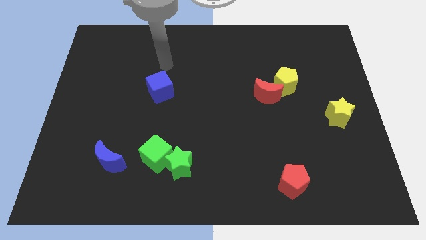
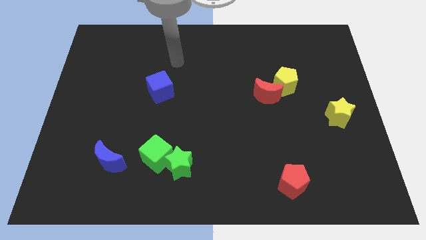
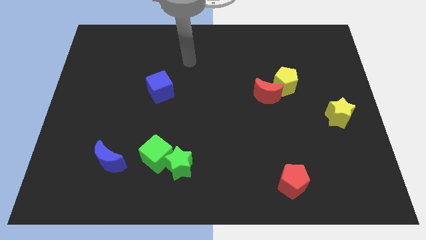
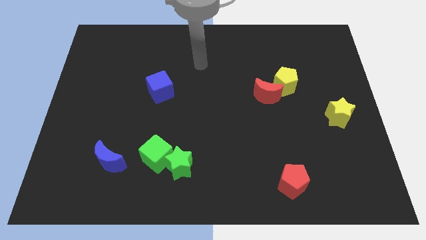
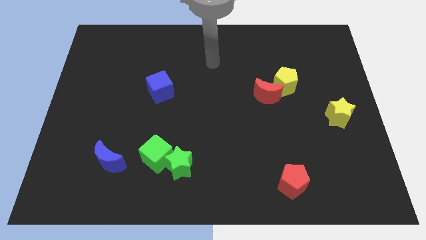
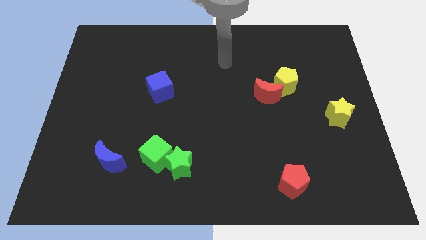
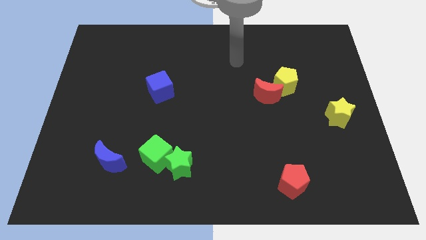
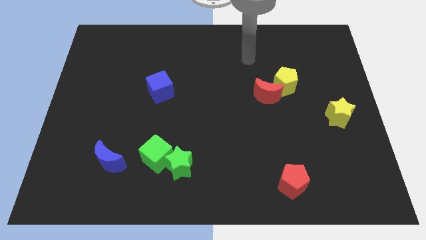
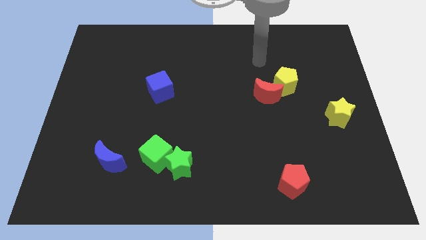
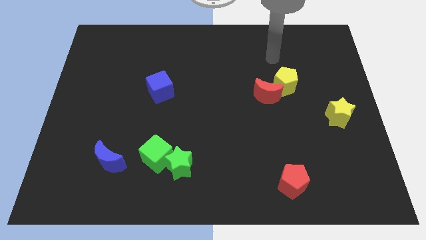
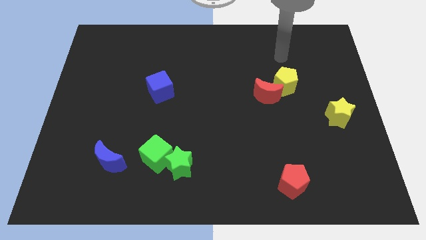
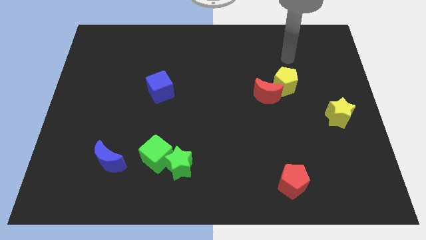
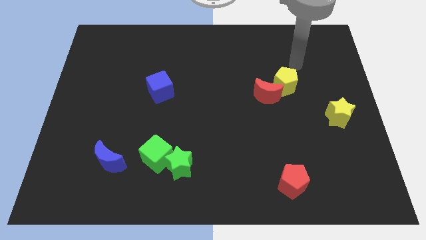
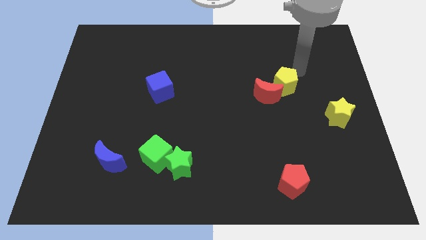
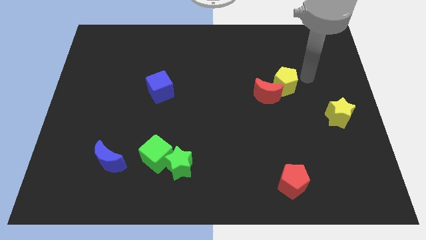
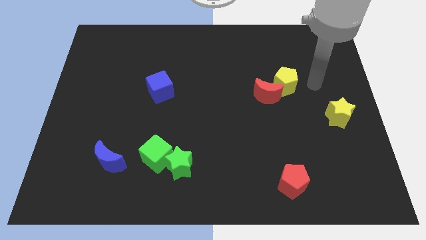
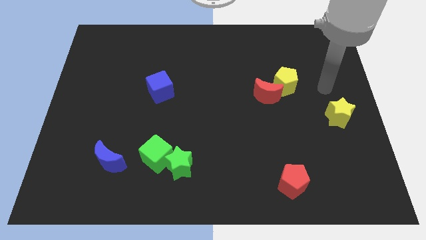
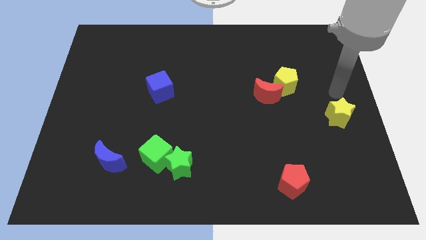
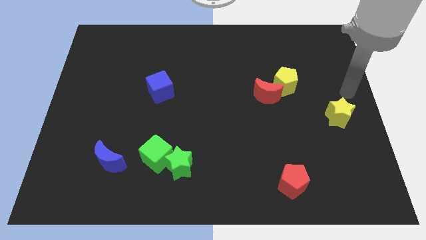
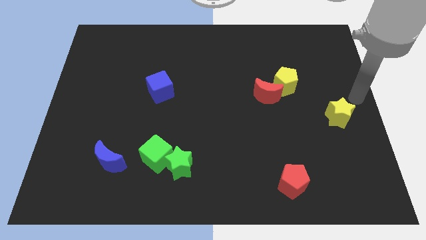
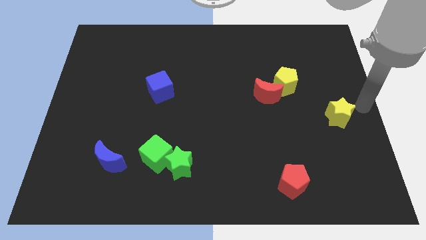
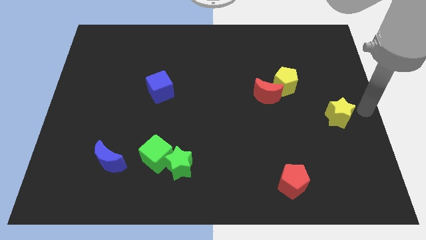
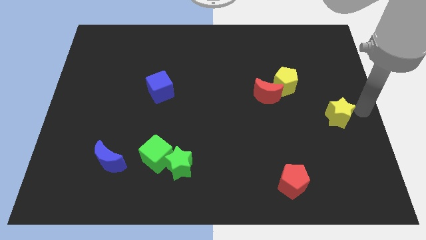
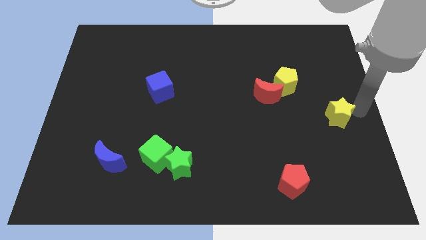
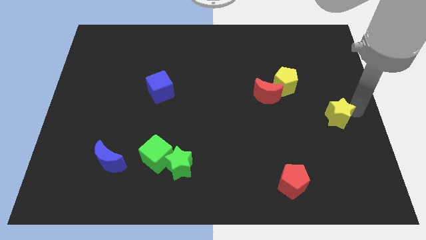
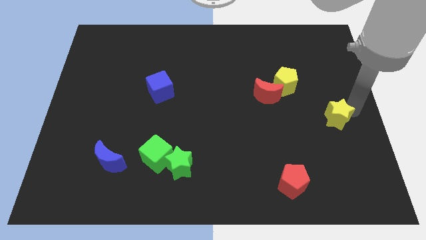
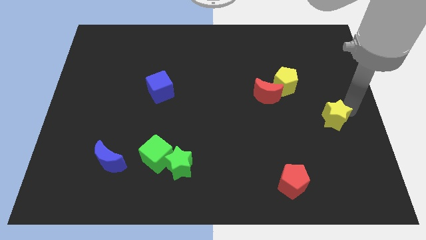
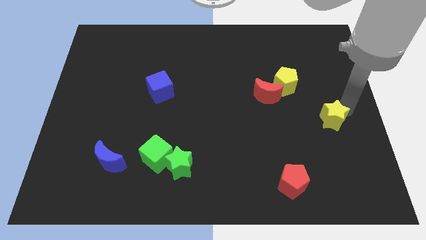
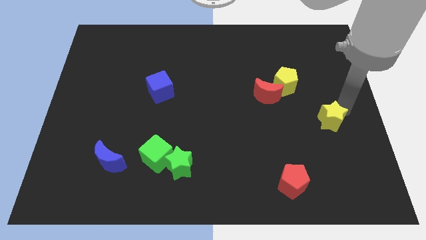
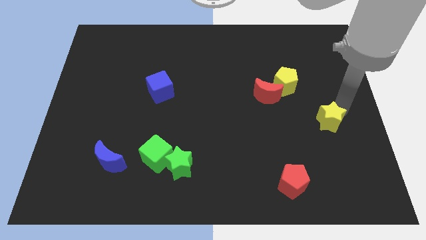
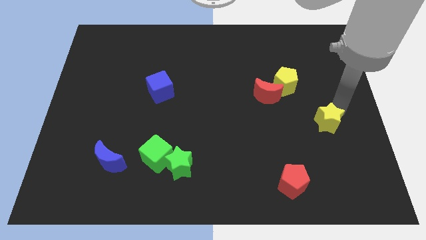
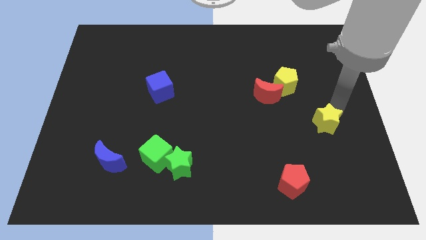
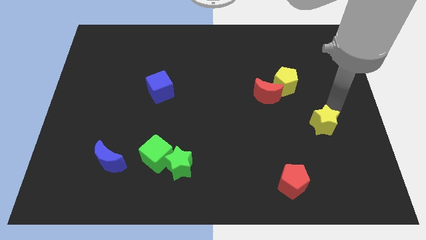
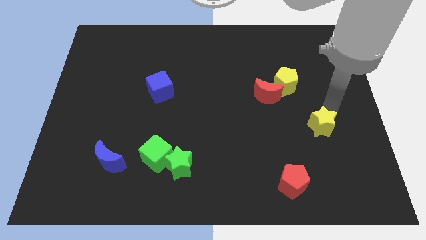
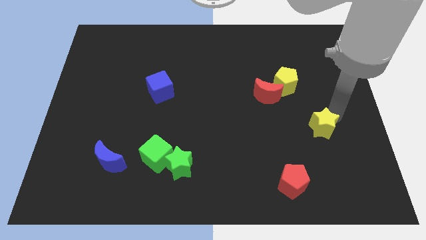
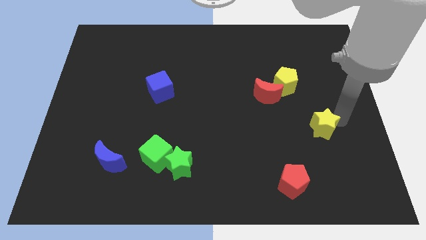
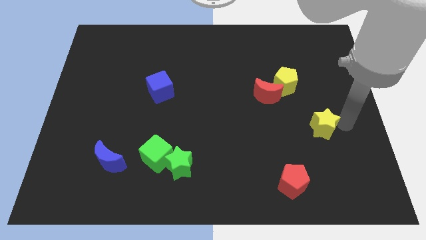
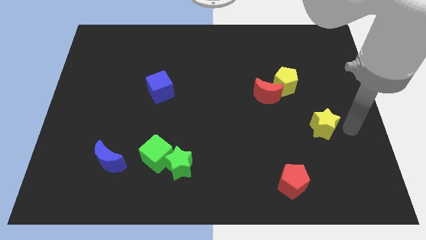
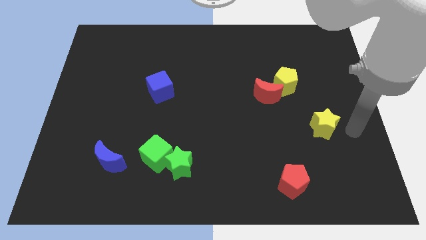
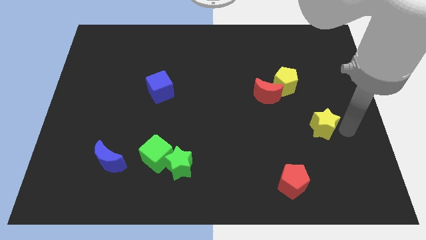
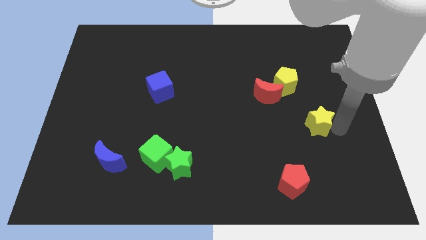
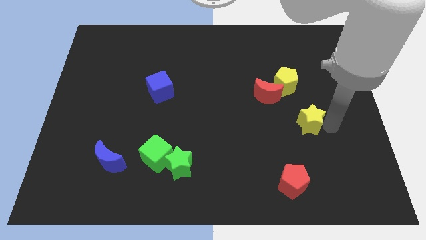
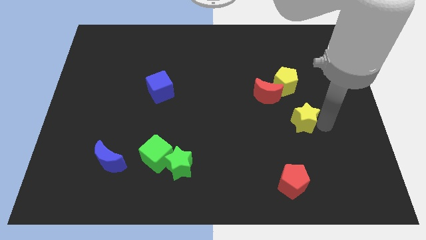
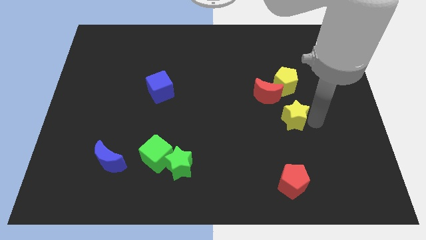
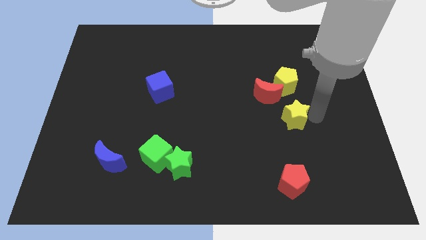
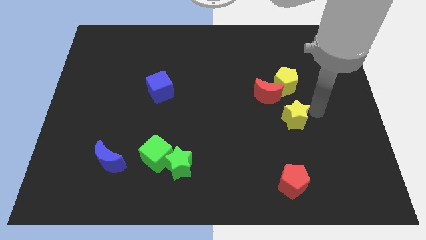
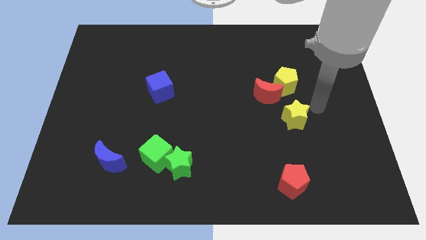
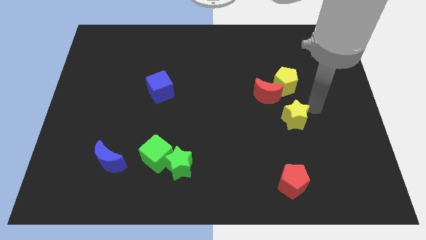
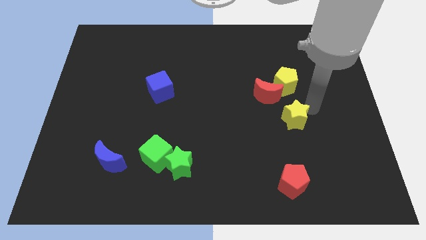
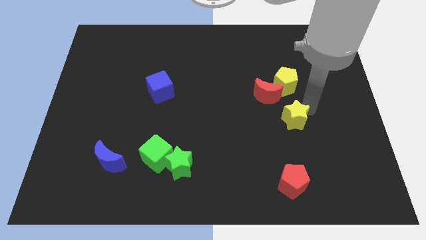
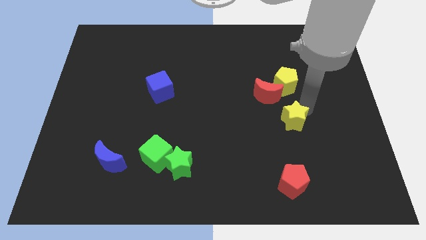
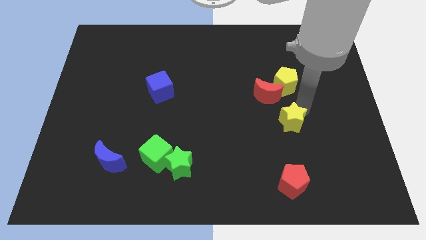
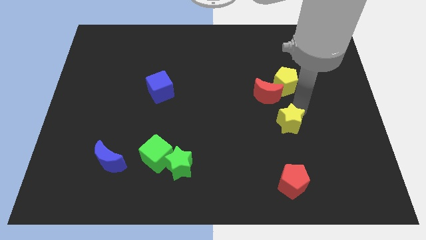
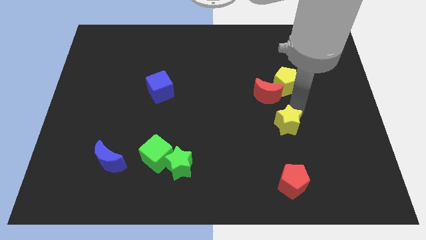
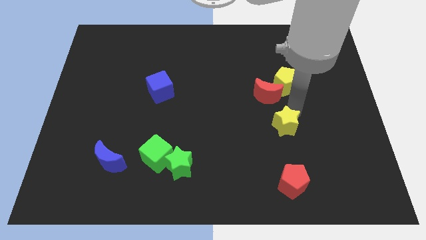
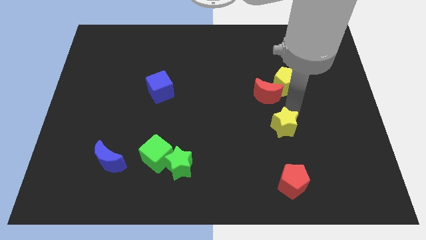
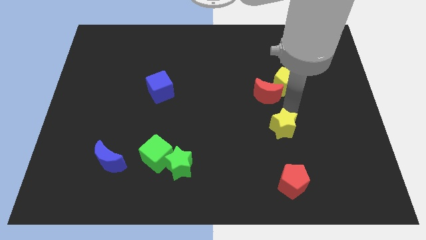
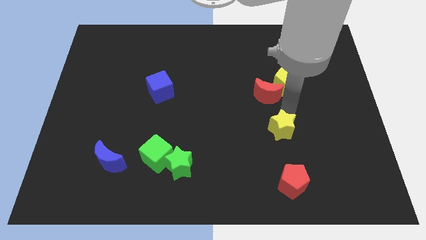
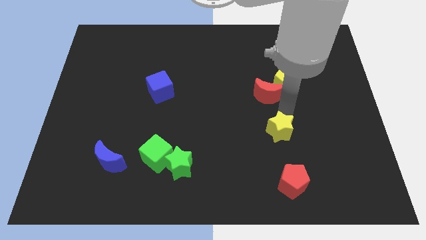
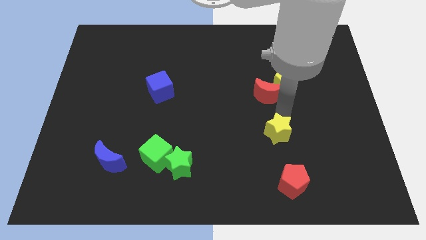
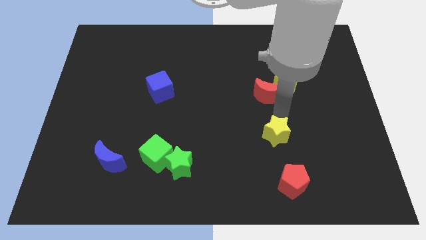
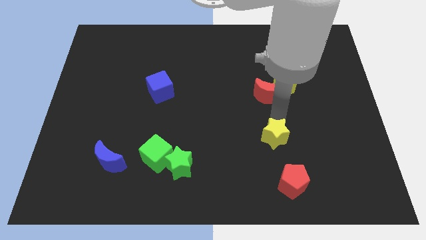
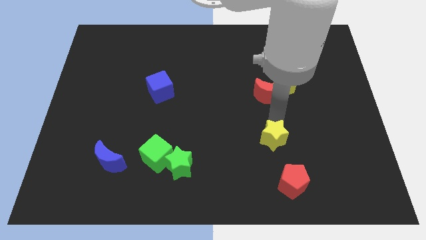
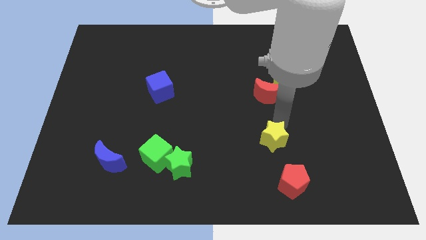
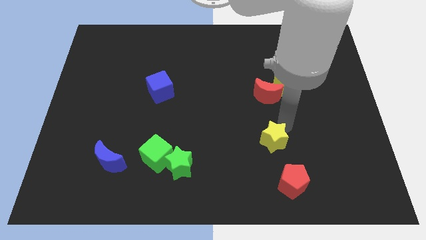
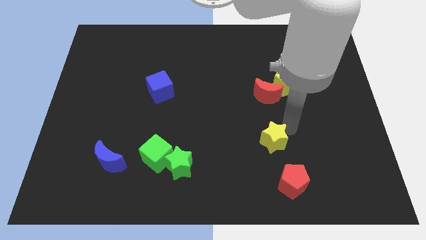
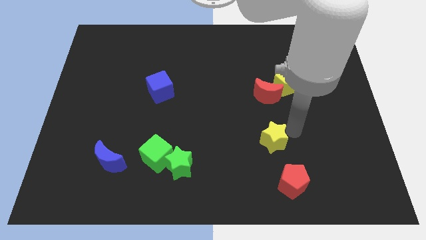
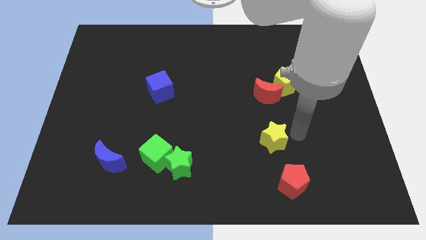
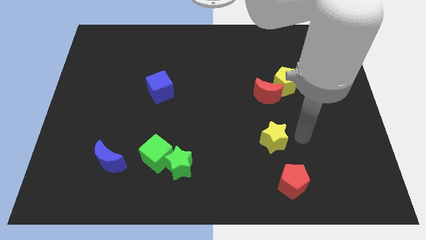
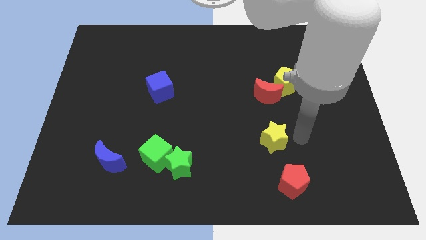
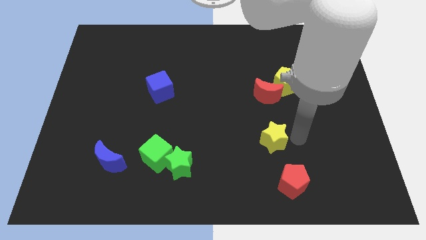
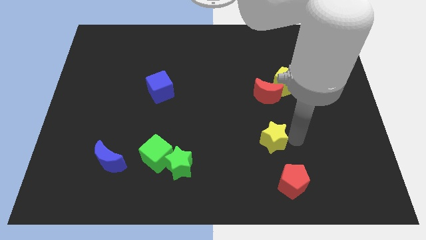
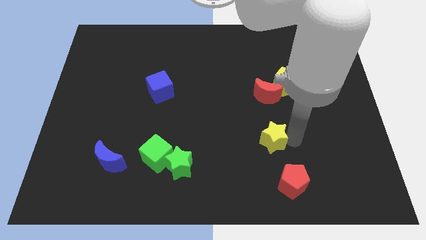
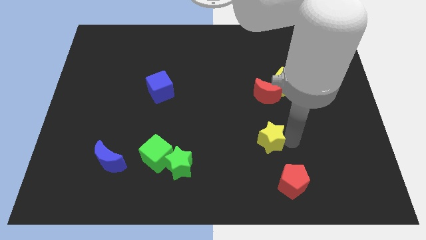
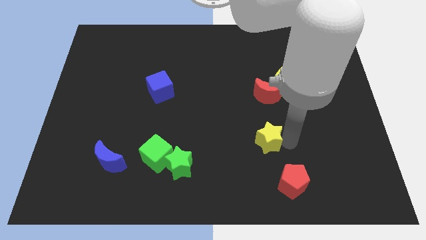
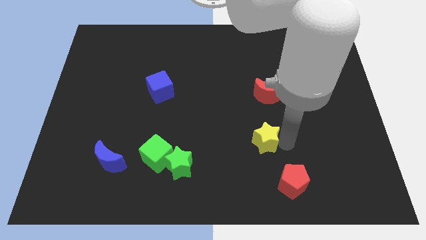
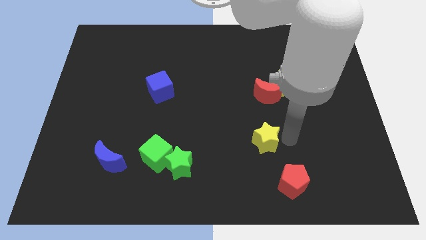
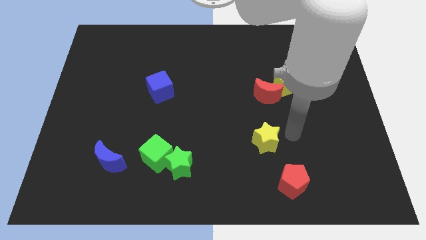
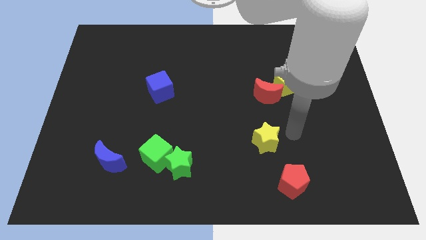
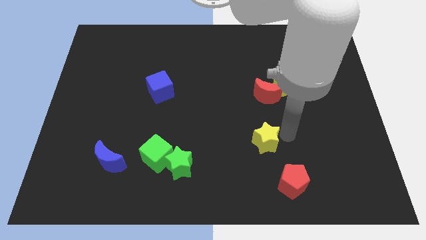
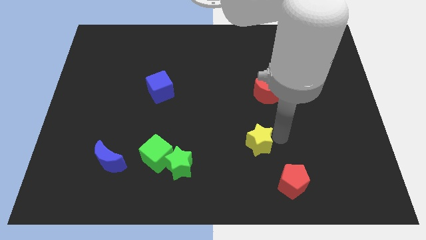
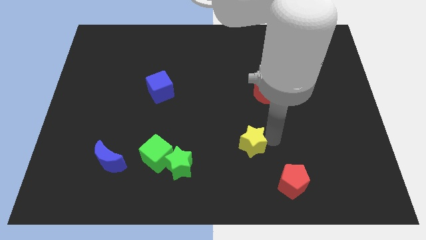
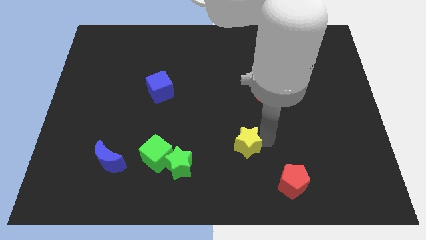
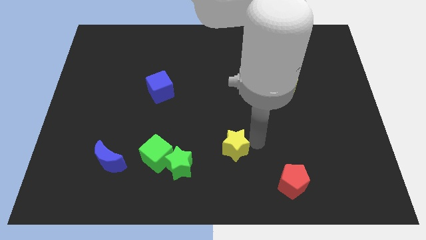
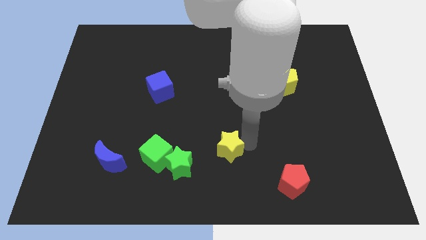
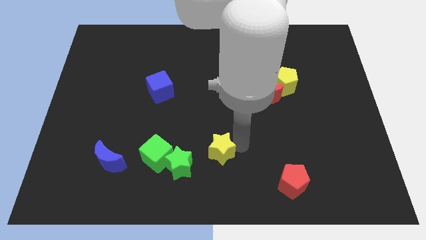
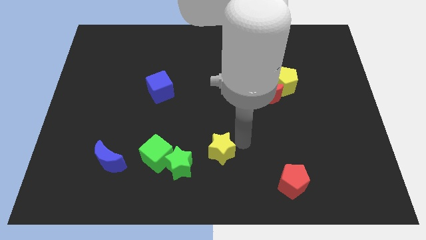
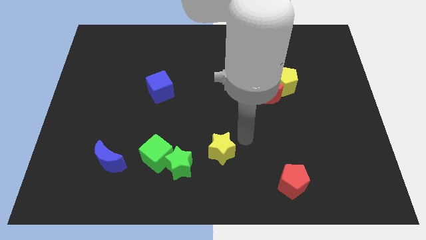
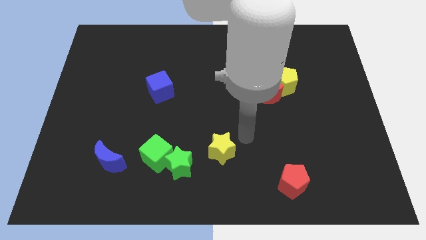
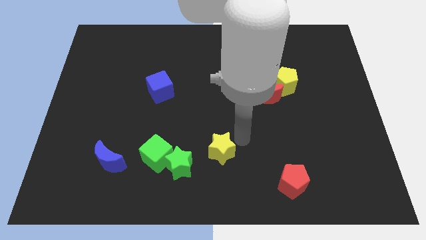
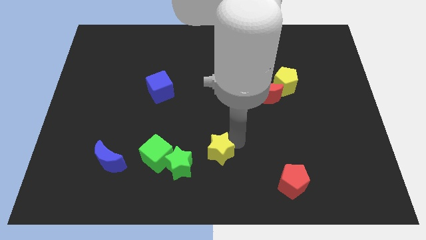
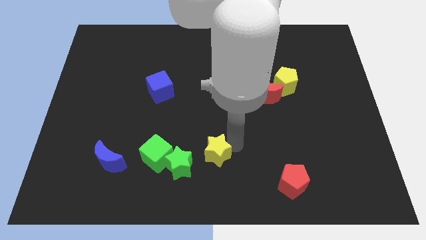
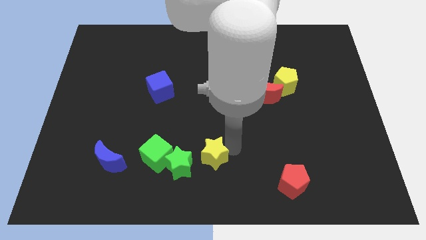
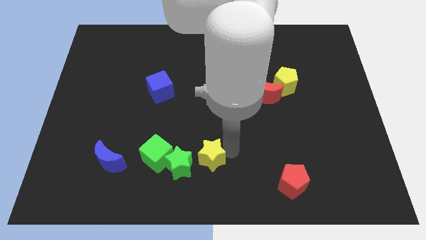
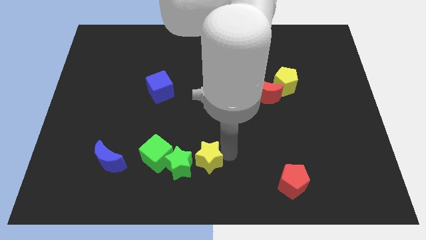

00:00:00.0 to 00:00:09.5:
slide the yellow star to the green star
